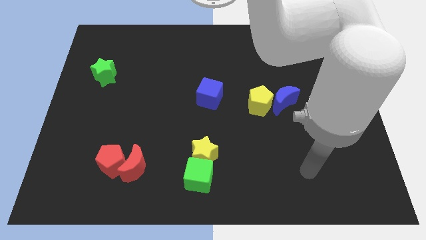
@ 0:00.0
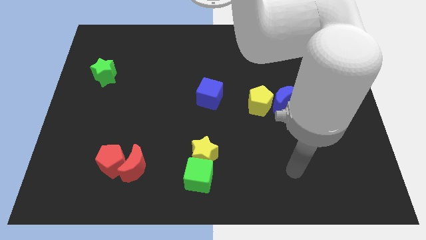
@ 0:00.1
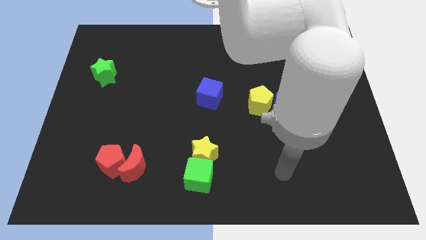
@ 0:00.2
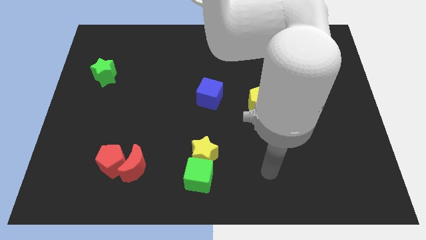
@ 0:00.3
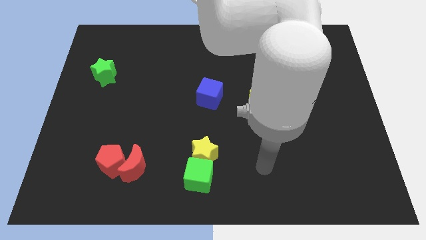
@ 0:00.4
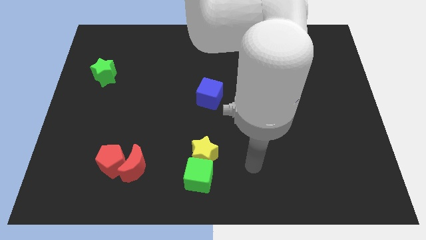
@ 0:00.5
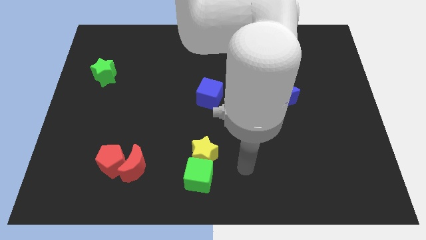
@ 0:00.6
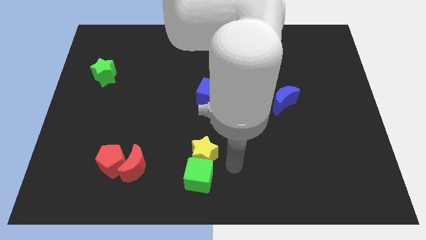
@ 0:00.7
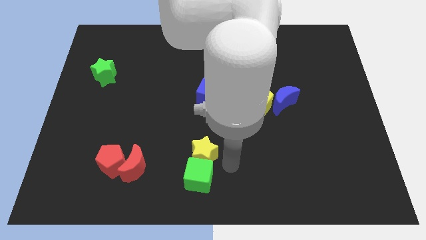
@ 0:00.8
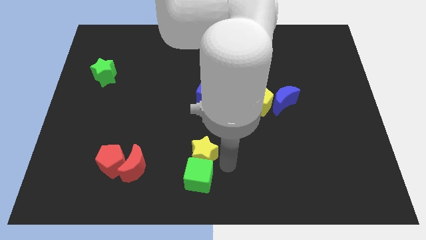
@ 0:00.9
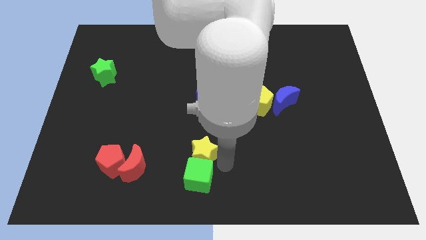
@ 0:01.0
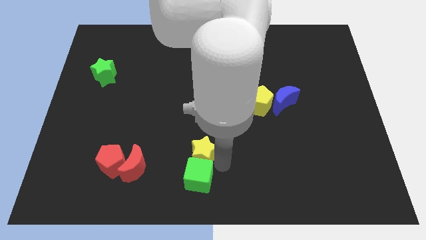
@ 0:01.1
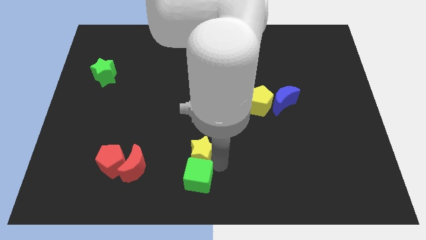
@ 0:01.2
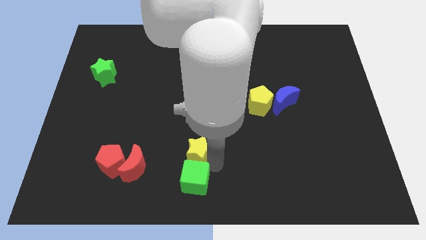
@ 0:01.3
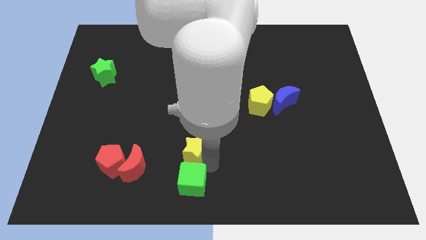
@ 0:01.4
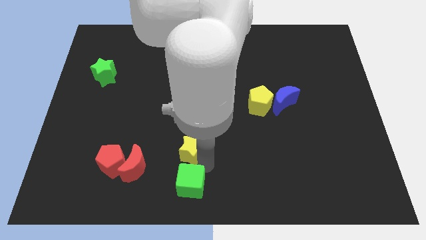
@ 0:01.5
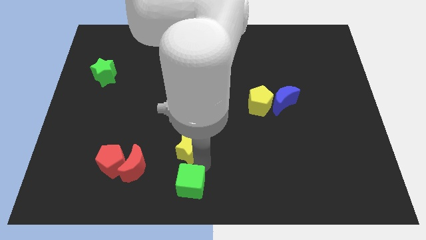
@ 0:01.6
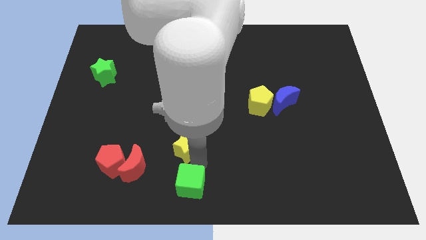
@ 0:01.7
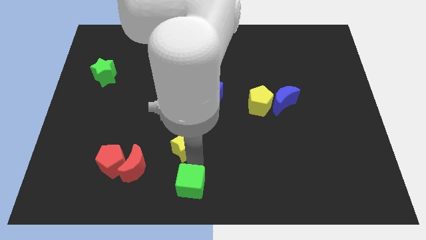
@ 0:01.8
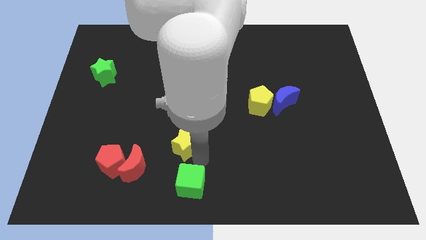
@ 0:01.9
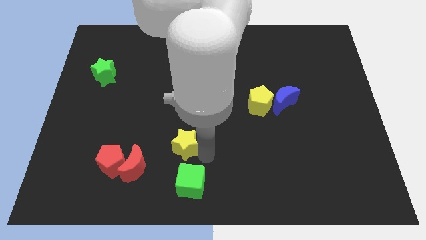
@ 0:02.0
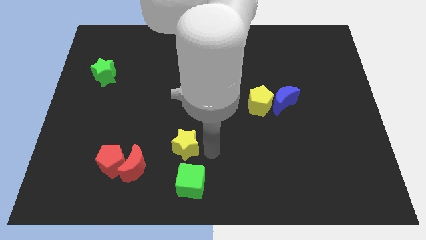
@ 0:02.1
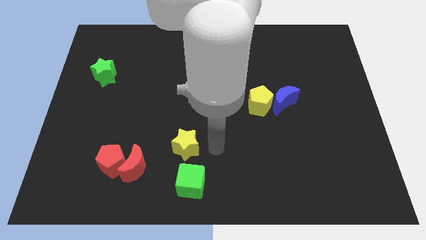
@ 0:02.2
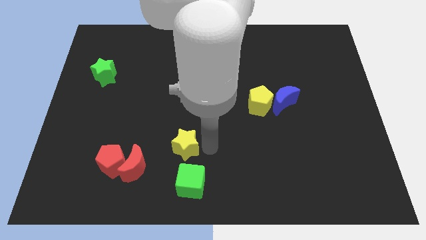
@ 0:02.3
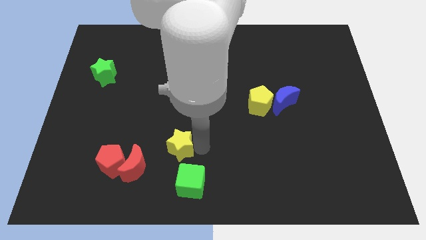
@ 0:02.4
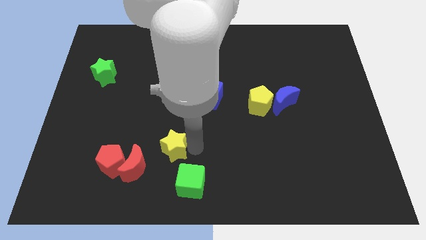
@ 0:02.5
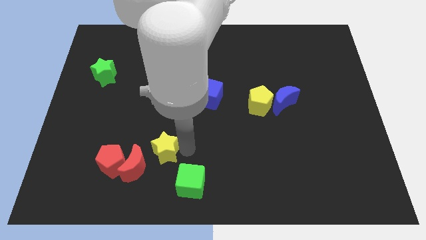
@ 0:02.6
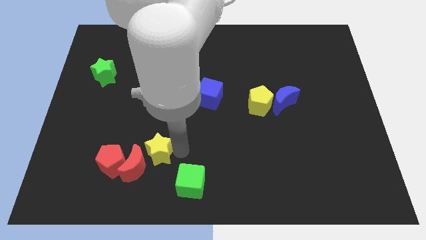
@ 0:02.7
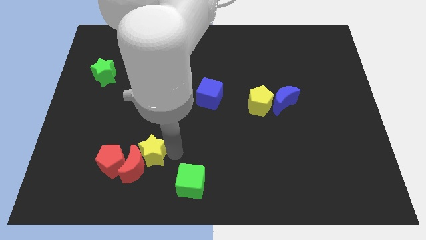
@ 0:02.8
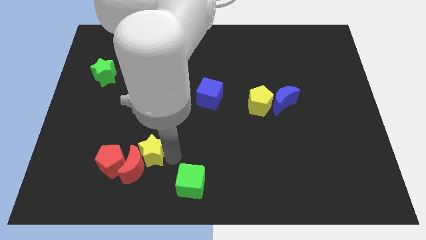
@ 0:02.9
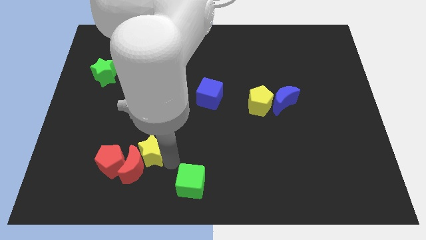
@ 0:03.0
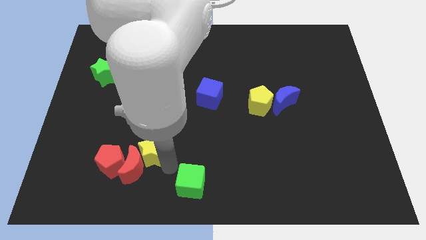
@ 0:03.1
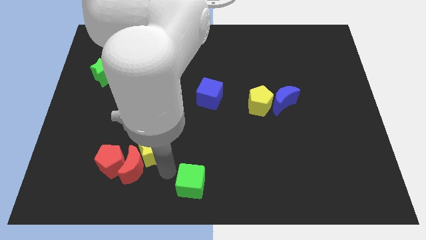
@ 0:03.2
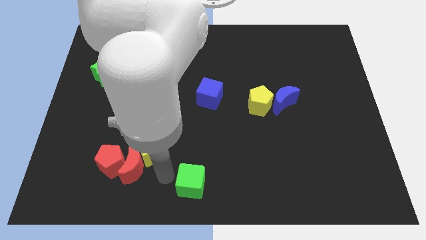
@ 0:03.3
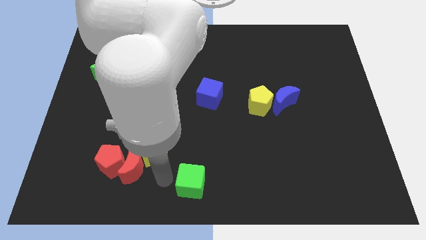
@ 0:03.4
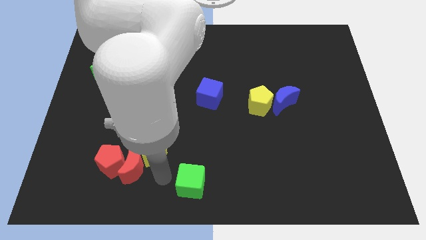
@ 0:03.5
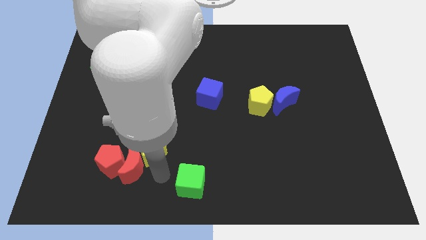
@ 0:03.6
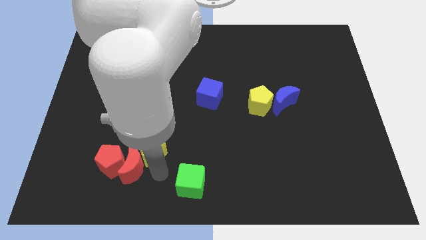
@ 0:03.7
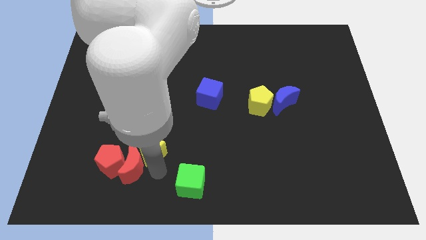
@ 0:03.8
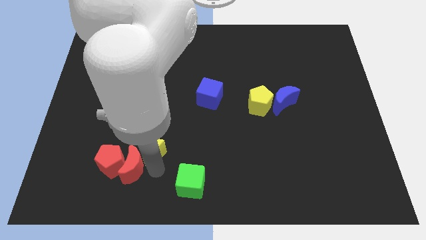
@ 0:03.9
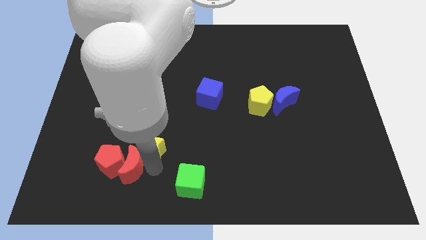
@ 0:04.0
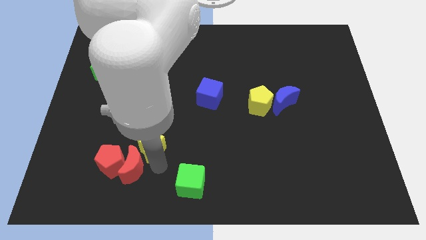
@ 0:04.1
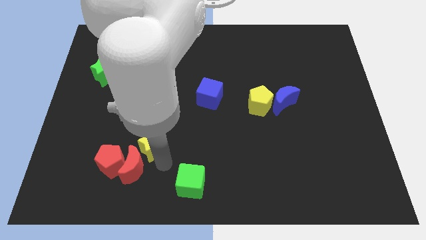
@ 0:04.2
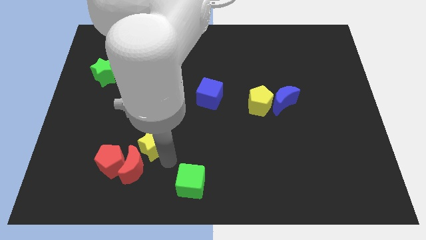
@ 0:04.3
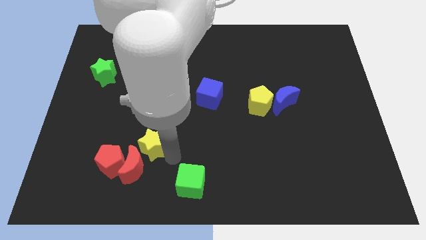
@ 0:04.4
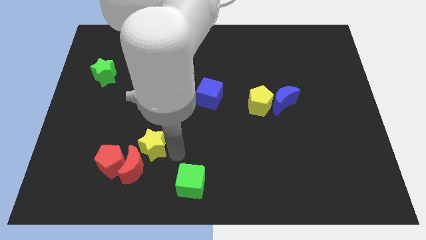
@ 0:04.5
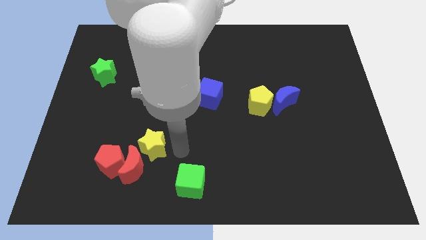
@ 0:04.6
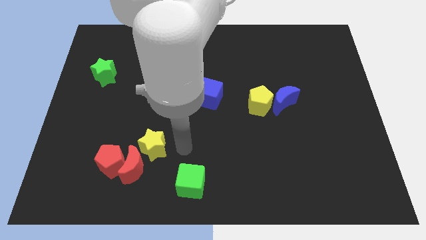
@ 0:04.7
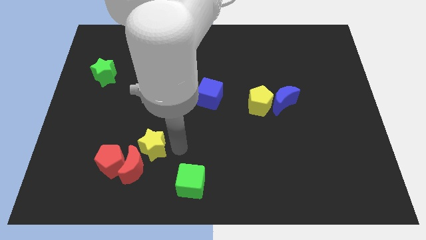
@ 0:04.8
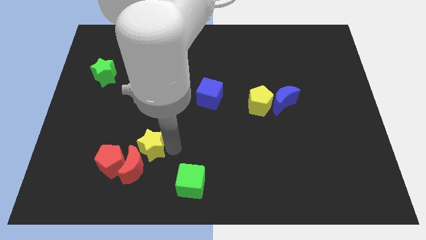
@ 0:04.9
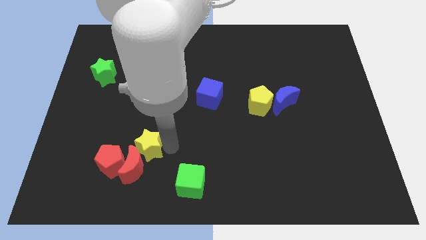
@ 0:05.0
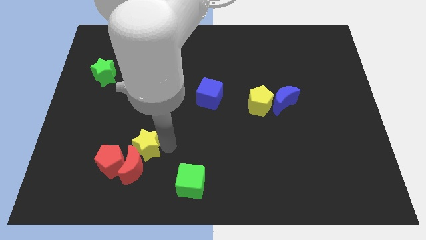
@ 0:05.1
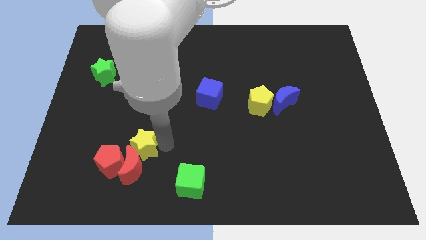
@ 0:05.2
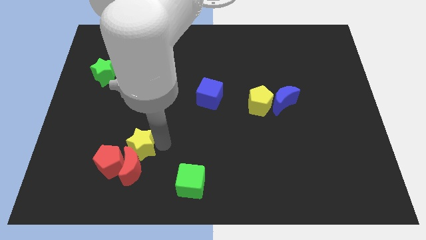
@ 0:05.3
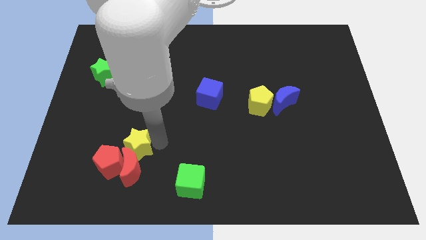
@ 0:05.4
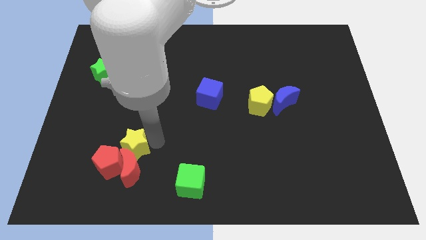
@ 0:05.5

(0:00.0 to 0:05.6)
slide the yellow star next to the red pentagon

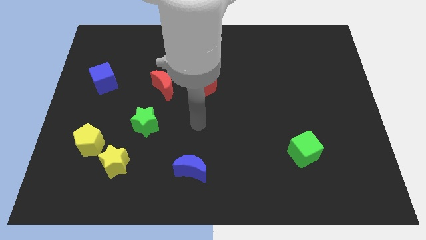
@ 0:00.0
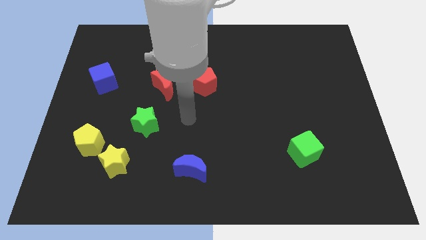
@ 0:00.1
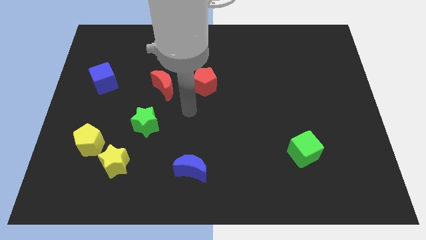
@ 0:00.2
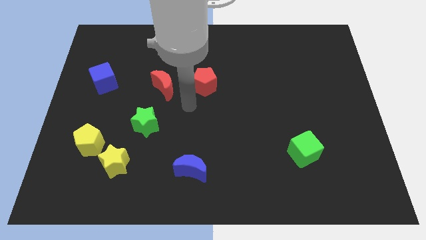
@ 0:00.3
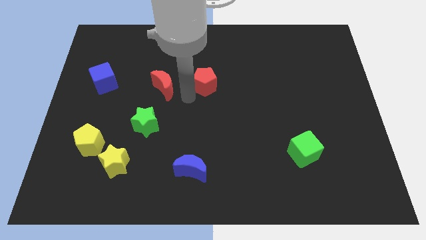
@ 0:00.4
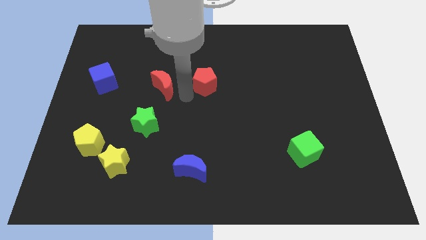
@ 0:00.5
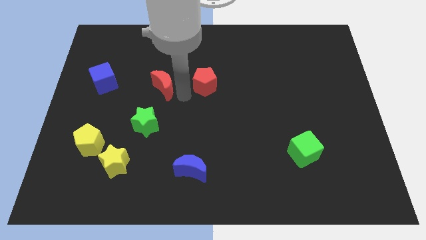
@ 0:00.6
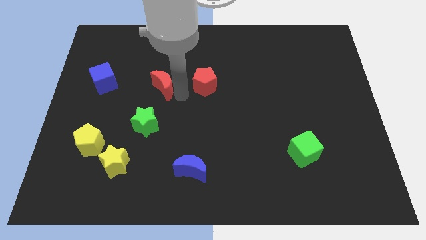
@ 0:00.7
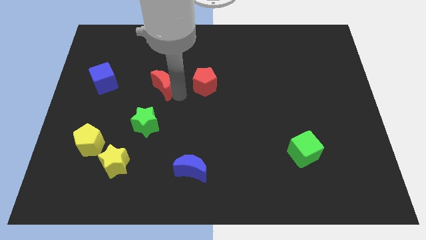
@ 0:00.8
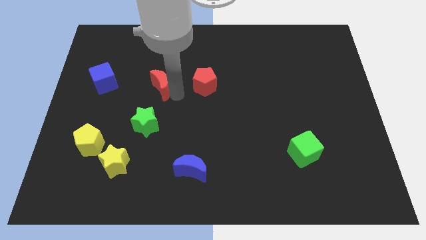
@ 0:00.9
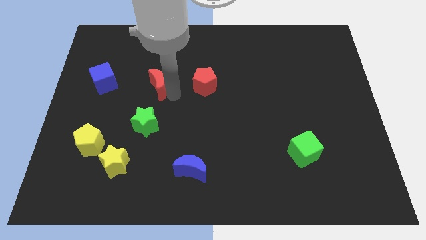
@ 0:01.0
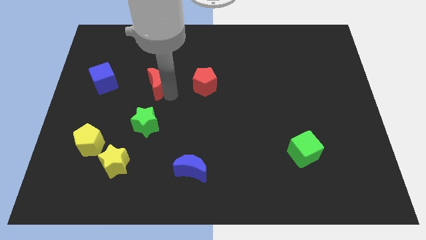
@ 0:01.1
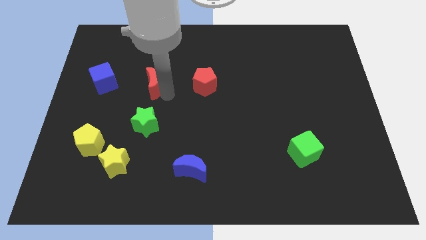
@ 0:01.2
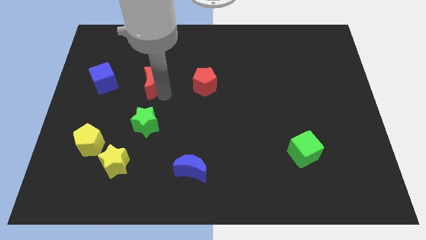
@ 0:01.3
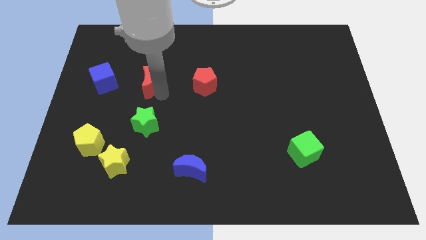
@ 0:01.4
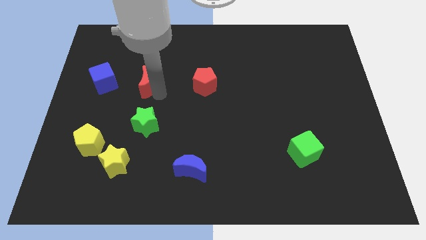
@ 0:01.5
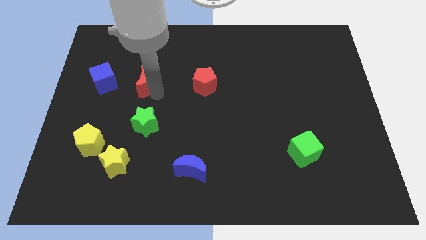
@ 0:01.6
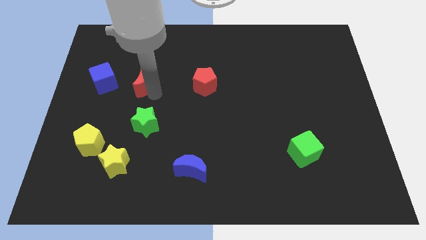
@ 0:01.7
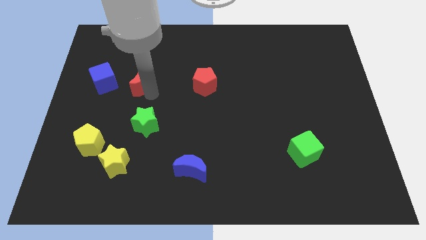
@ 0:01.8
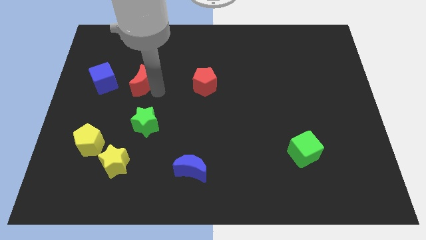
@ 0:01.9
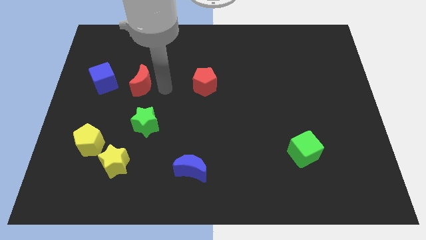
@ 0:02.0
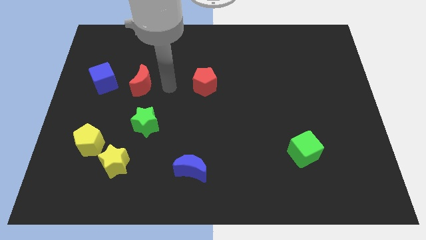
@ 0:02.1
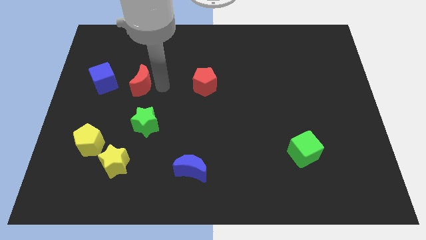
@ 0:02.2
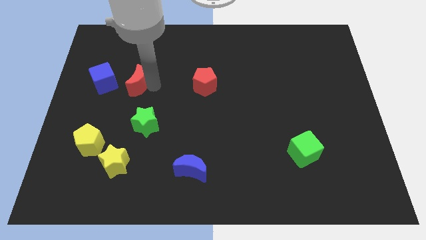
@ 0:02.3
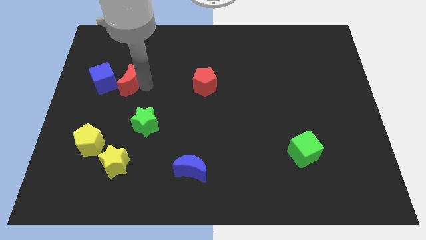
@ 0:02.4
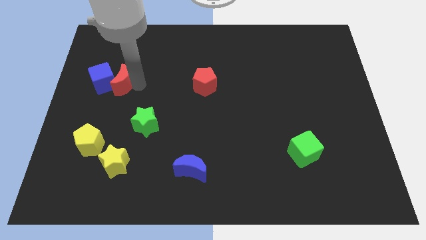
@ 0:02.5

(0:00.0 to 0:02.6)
put the red moon close to the blue cube
